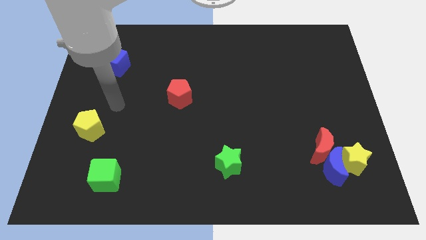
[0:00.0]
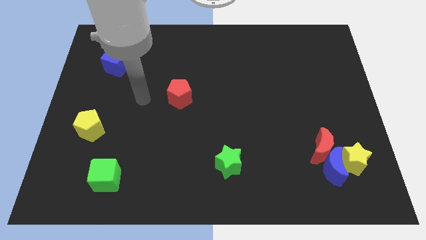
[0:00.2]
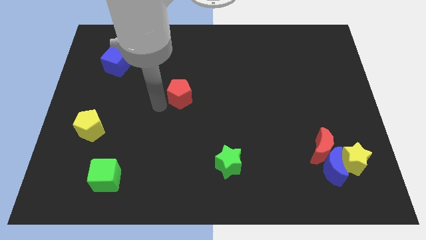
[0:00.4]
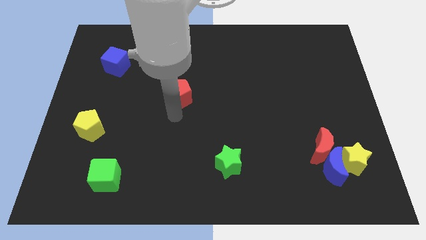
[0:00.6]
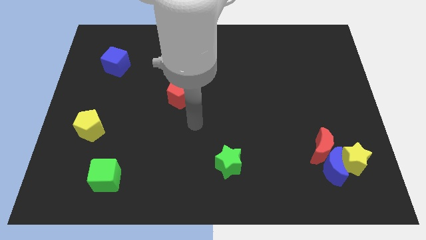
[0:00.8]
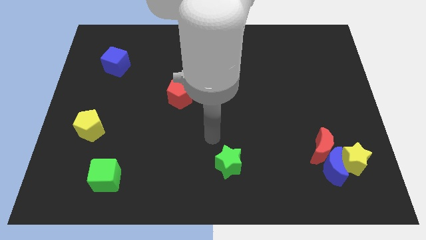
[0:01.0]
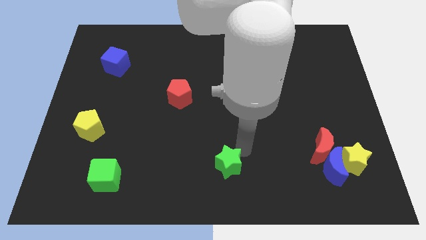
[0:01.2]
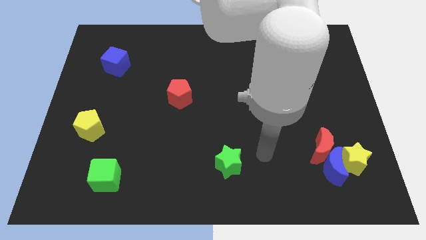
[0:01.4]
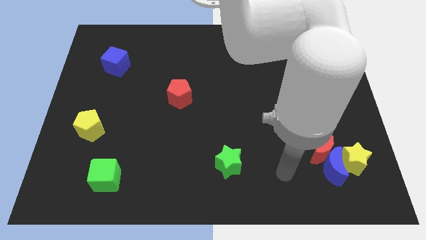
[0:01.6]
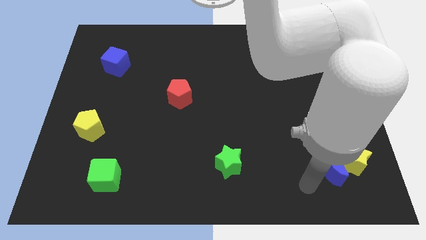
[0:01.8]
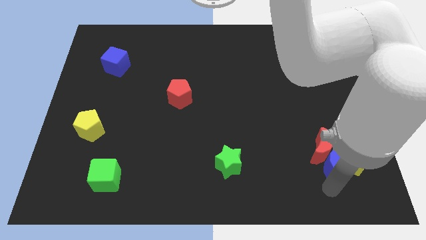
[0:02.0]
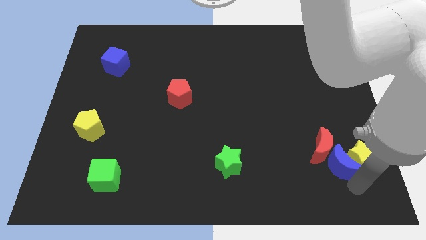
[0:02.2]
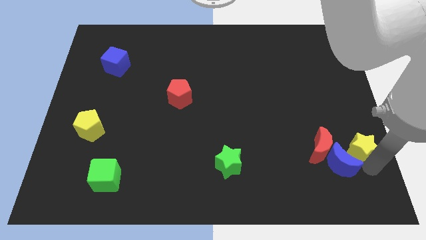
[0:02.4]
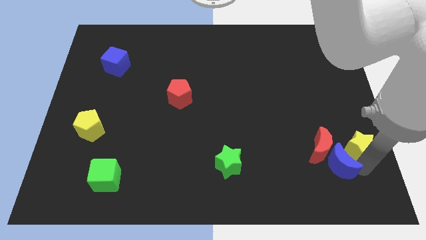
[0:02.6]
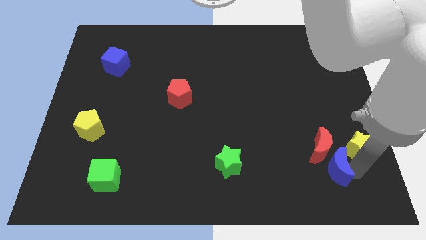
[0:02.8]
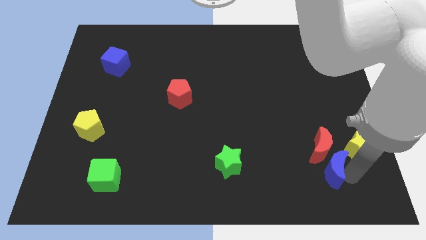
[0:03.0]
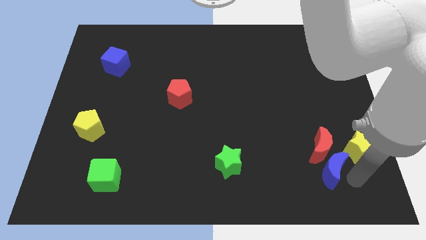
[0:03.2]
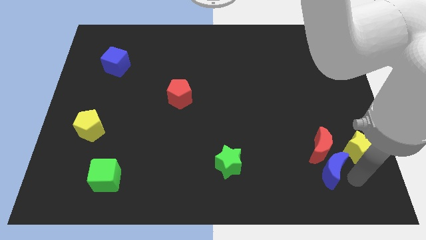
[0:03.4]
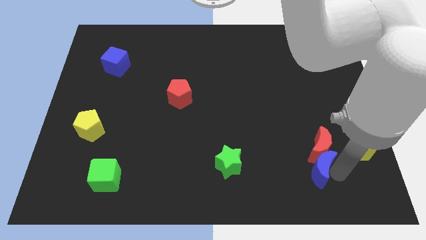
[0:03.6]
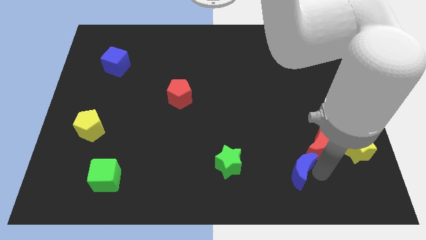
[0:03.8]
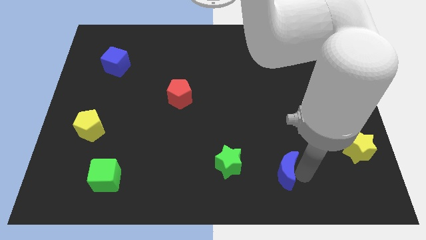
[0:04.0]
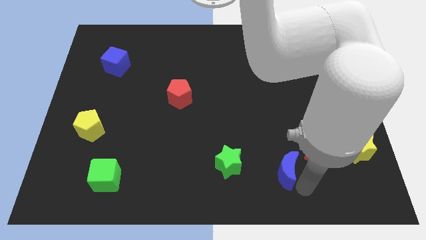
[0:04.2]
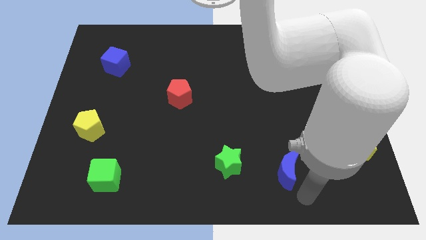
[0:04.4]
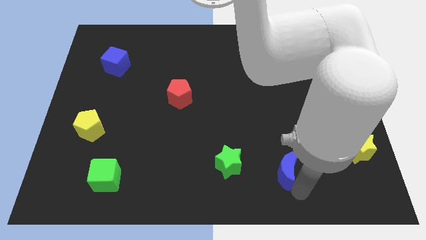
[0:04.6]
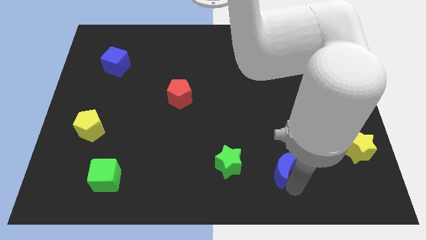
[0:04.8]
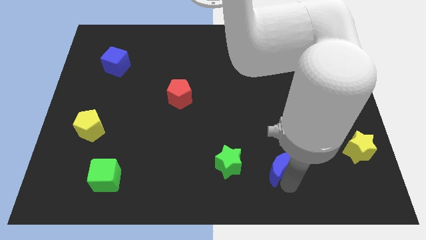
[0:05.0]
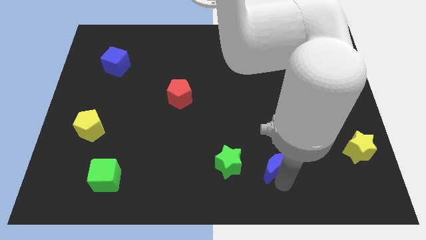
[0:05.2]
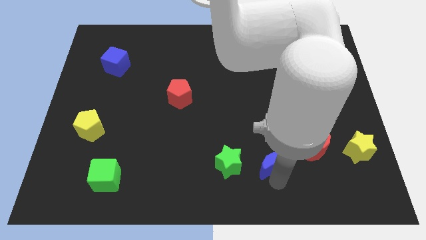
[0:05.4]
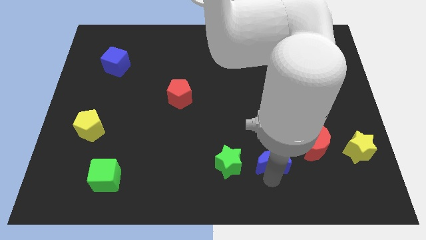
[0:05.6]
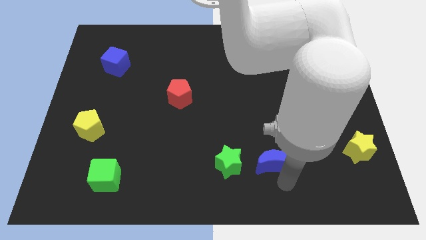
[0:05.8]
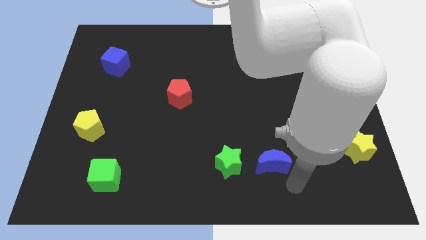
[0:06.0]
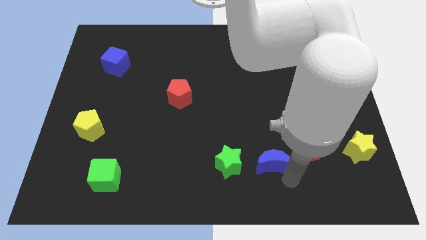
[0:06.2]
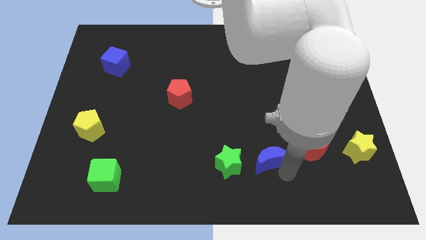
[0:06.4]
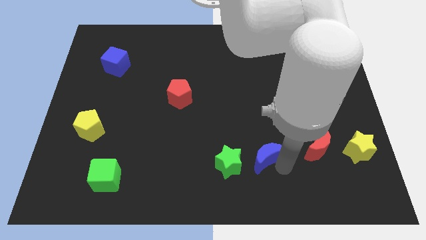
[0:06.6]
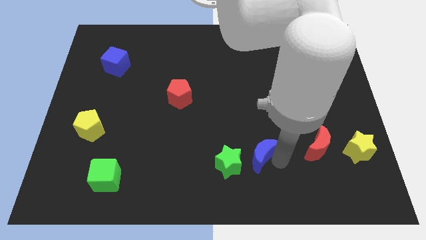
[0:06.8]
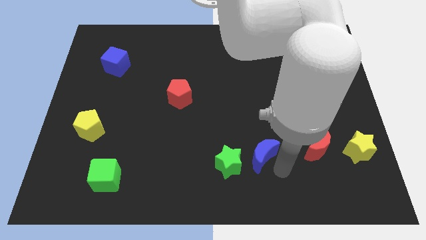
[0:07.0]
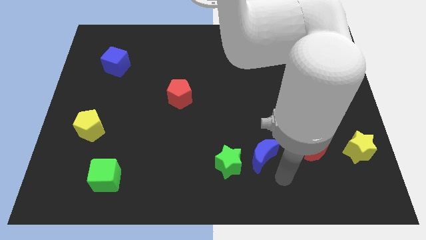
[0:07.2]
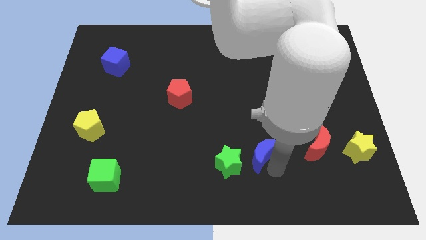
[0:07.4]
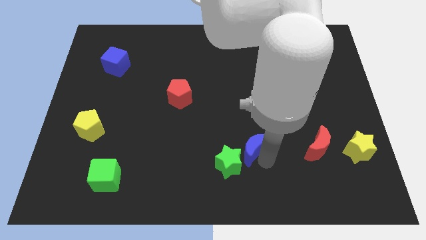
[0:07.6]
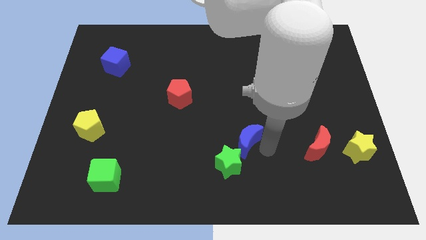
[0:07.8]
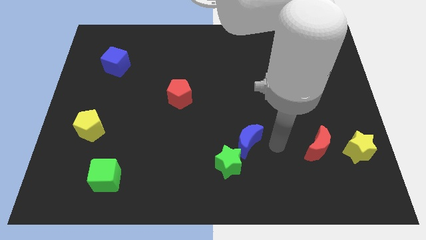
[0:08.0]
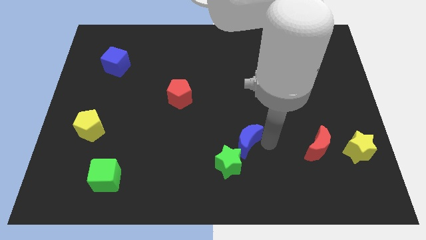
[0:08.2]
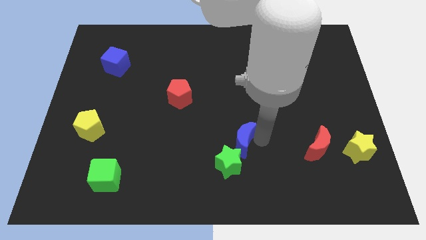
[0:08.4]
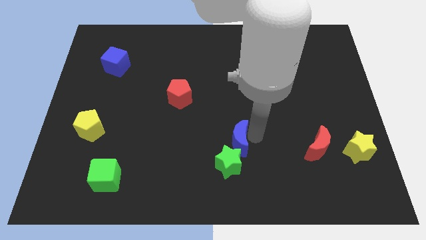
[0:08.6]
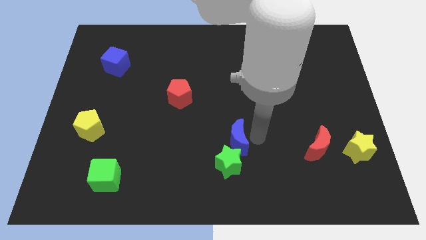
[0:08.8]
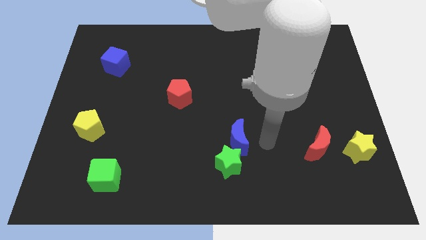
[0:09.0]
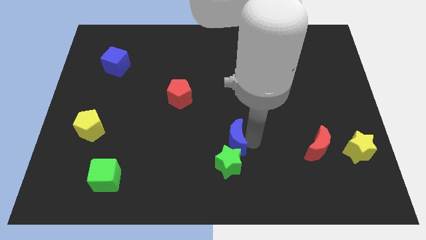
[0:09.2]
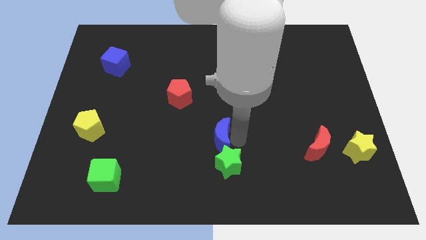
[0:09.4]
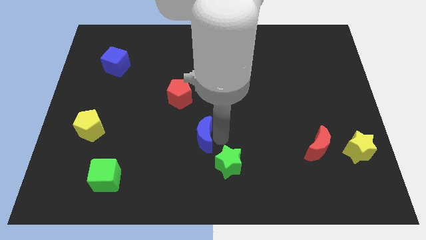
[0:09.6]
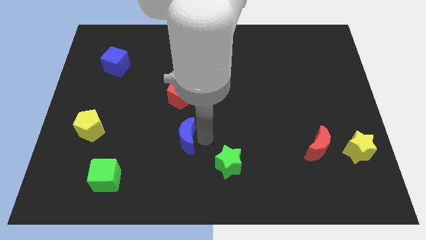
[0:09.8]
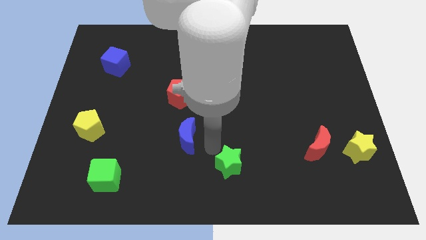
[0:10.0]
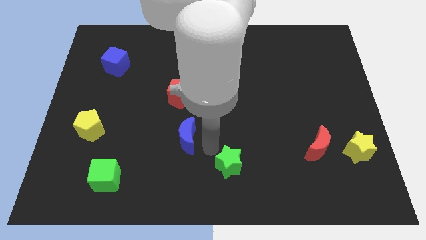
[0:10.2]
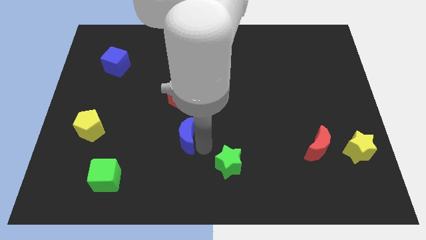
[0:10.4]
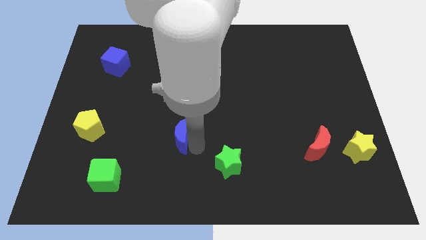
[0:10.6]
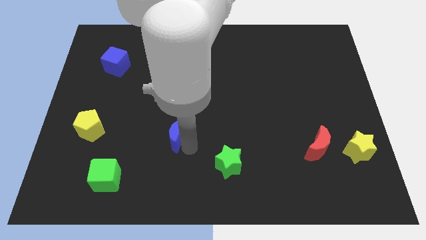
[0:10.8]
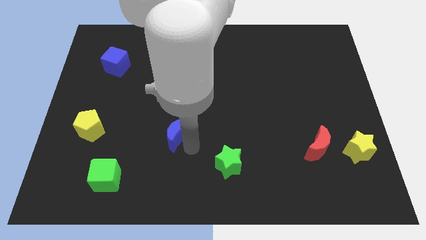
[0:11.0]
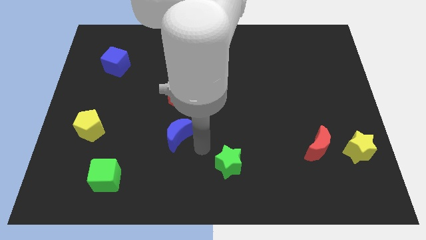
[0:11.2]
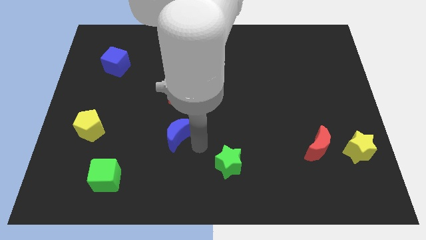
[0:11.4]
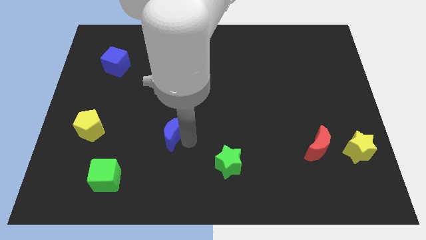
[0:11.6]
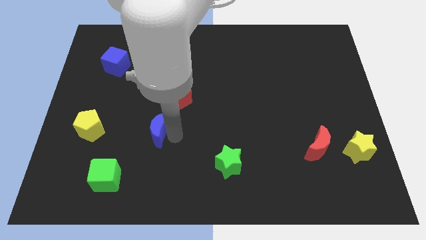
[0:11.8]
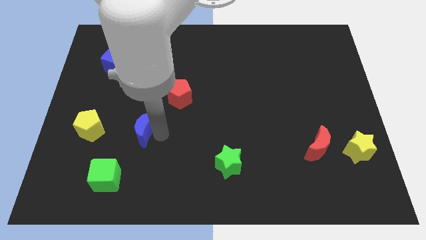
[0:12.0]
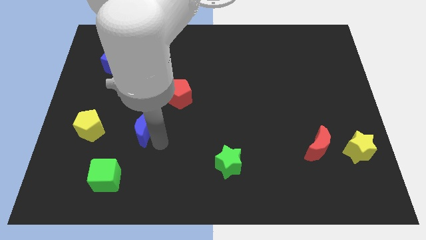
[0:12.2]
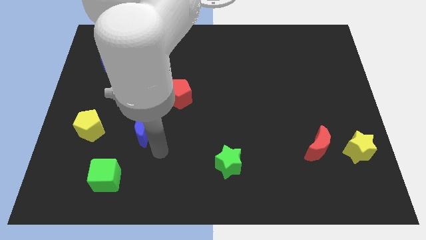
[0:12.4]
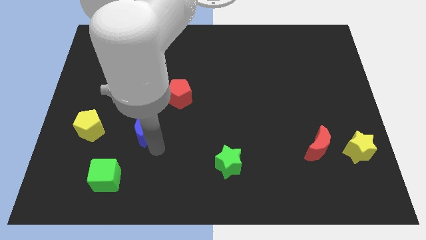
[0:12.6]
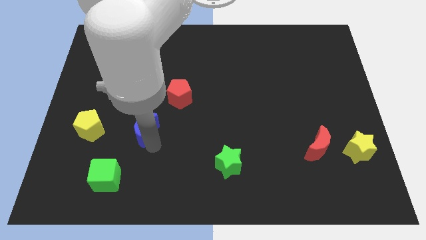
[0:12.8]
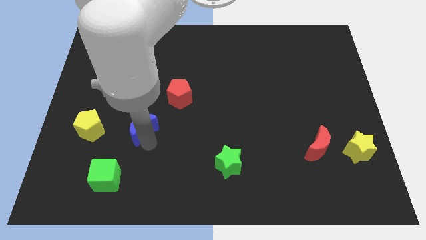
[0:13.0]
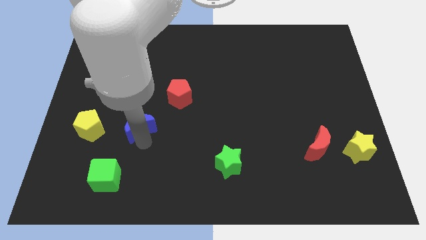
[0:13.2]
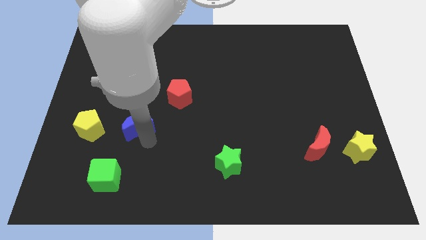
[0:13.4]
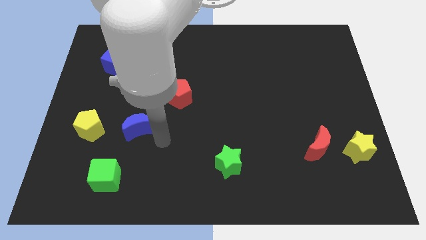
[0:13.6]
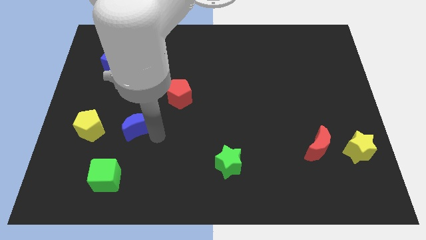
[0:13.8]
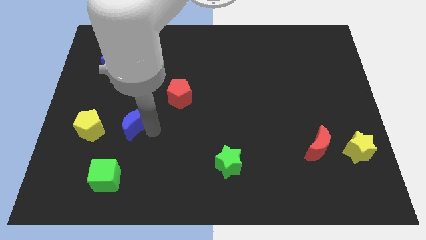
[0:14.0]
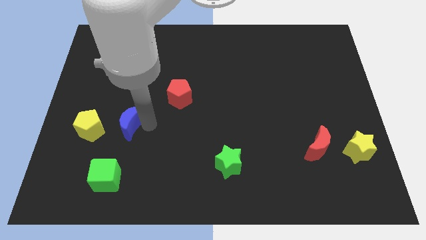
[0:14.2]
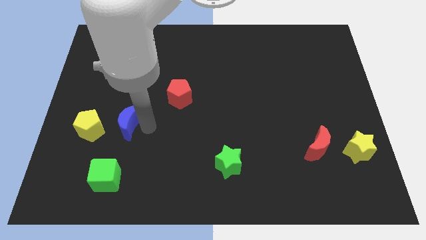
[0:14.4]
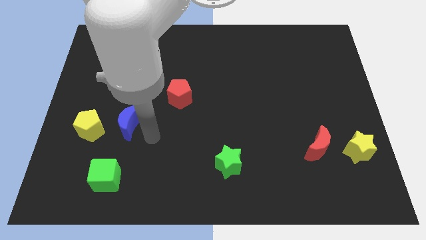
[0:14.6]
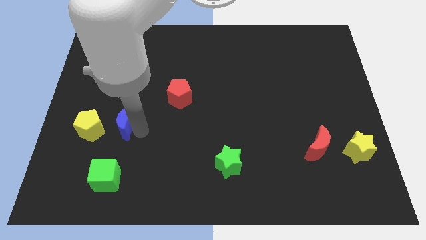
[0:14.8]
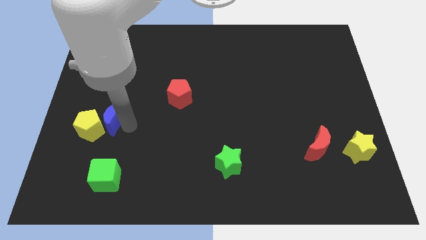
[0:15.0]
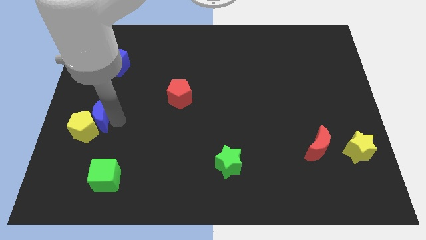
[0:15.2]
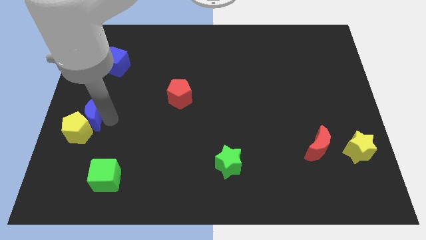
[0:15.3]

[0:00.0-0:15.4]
move the blue moon to the center left
